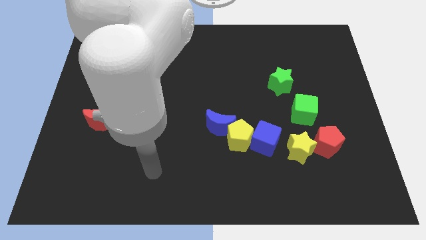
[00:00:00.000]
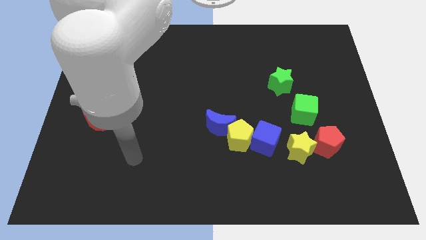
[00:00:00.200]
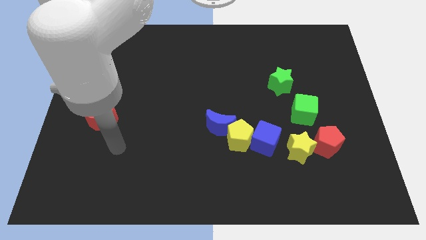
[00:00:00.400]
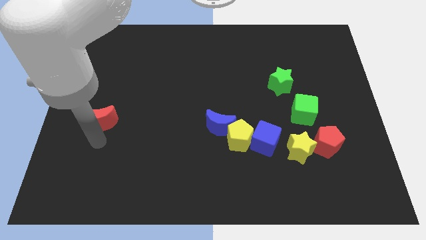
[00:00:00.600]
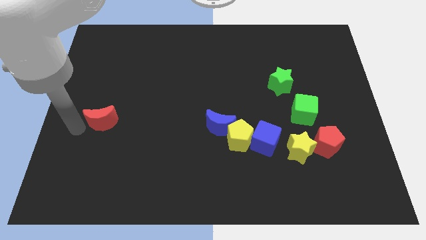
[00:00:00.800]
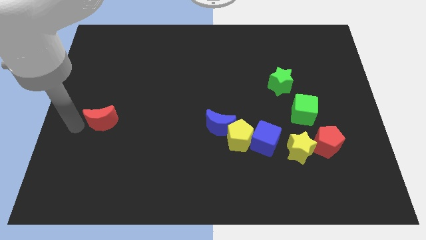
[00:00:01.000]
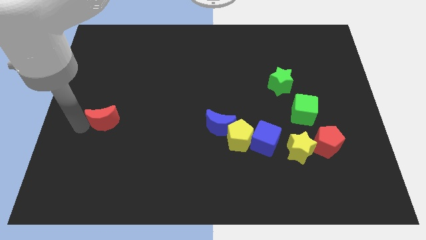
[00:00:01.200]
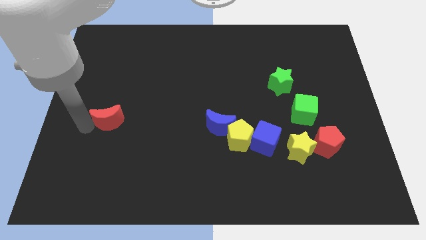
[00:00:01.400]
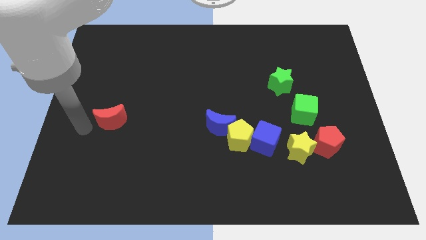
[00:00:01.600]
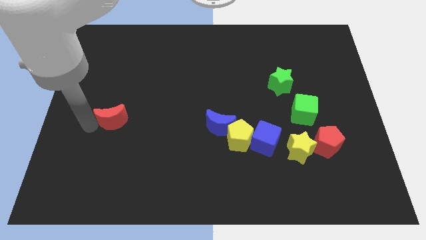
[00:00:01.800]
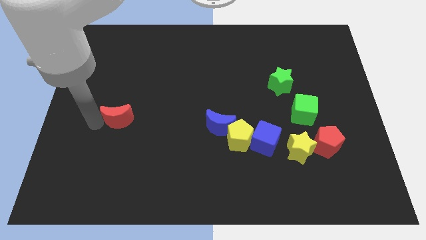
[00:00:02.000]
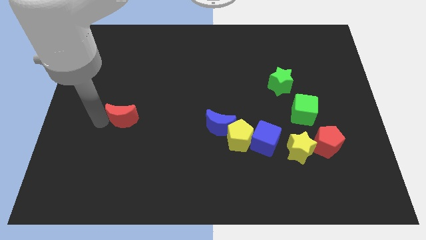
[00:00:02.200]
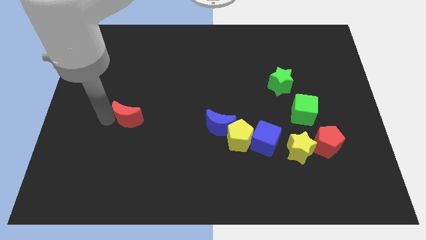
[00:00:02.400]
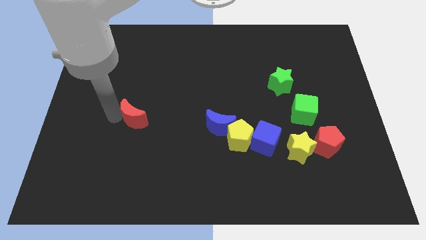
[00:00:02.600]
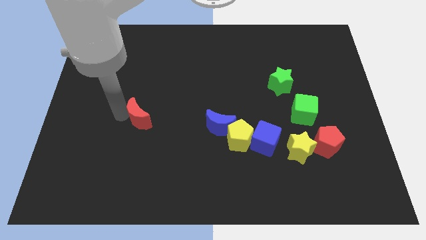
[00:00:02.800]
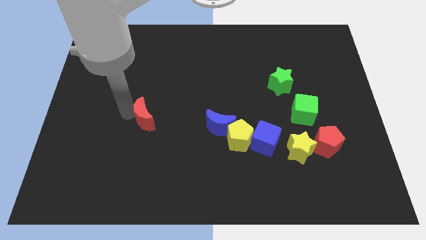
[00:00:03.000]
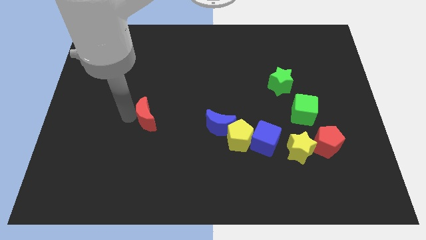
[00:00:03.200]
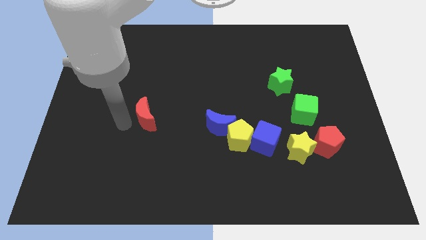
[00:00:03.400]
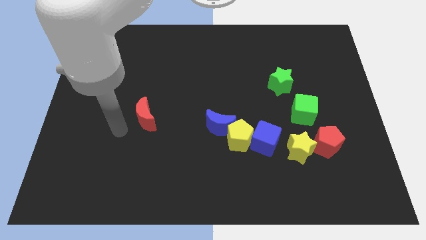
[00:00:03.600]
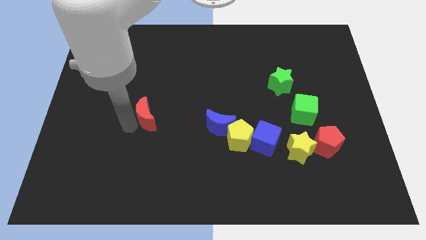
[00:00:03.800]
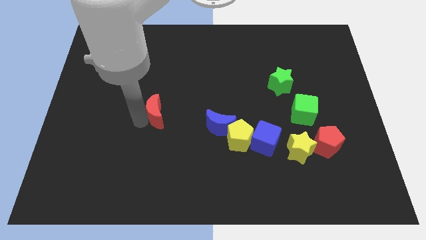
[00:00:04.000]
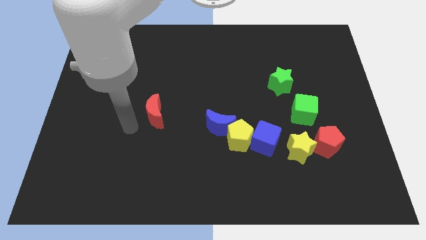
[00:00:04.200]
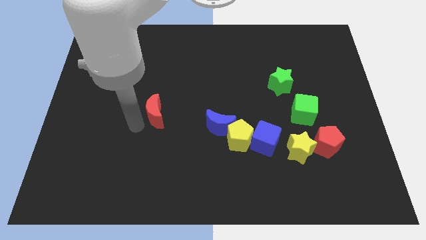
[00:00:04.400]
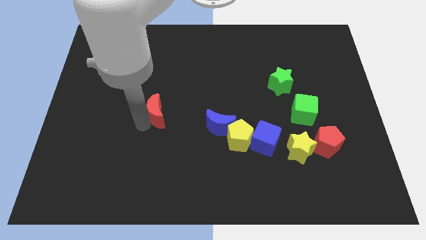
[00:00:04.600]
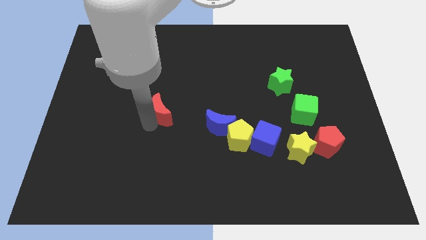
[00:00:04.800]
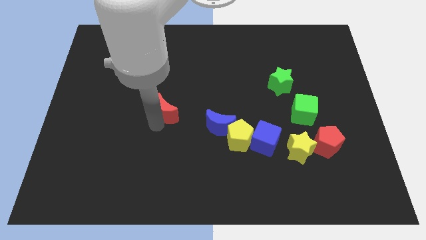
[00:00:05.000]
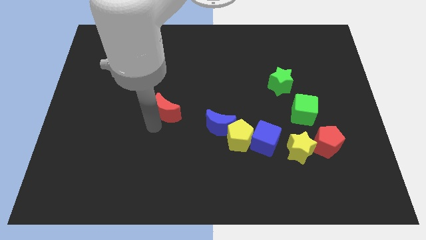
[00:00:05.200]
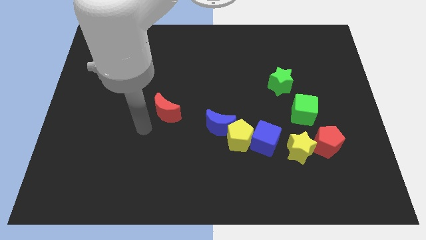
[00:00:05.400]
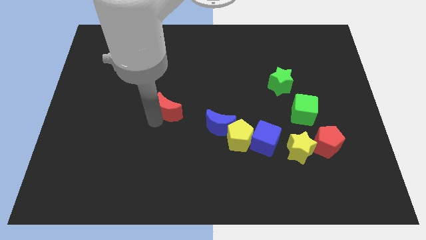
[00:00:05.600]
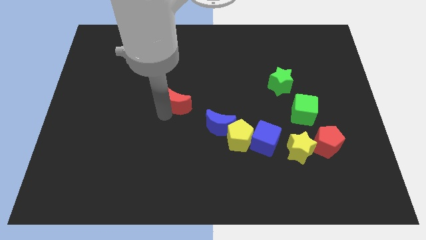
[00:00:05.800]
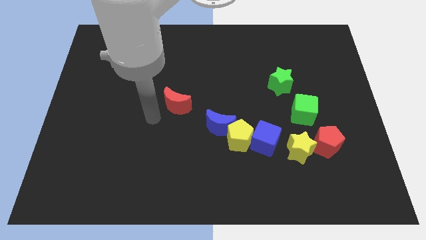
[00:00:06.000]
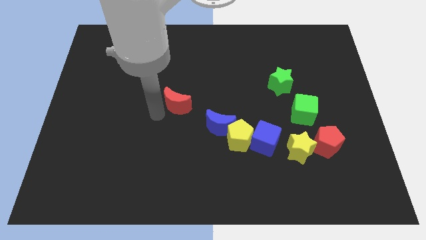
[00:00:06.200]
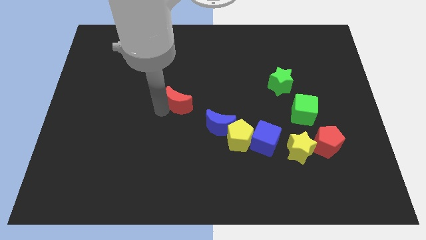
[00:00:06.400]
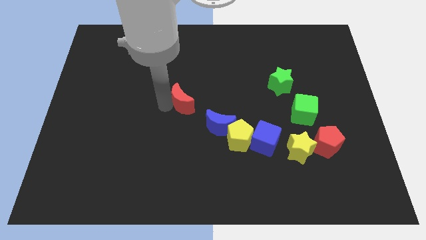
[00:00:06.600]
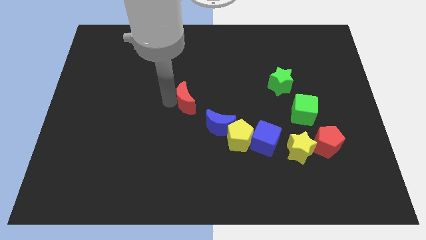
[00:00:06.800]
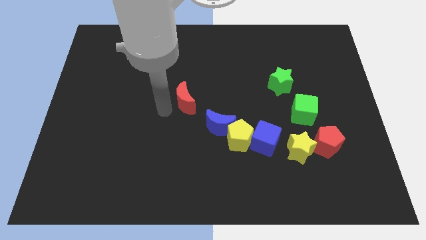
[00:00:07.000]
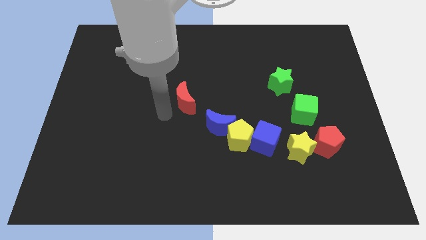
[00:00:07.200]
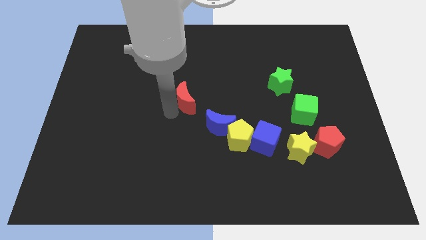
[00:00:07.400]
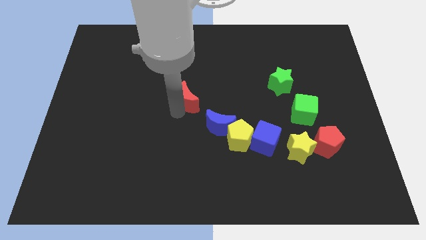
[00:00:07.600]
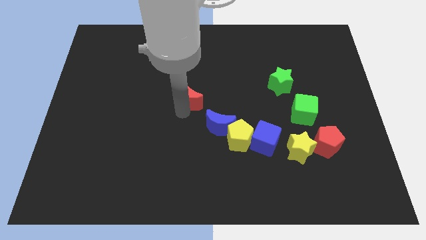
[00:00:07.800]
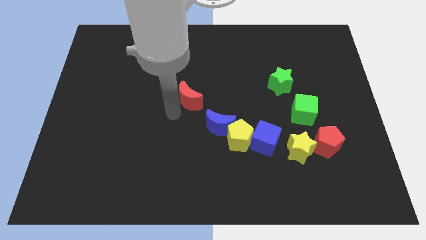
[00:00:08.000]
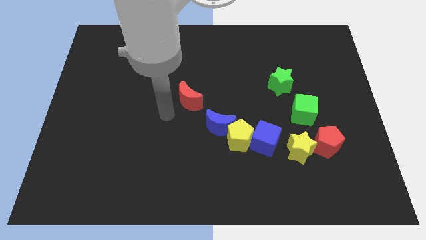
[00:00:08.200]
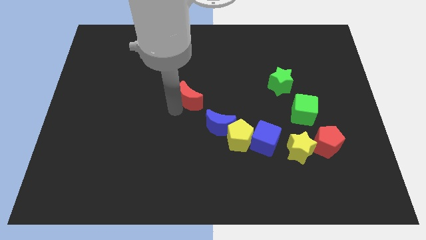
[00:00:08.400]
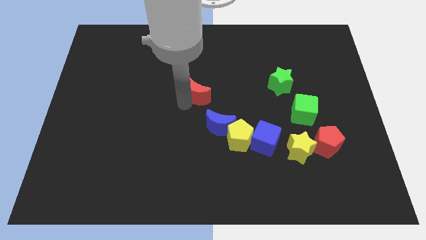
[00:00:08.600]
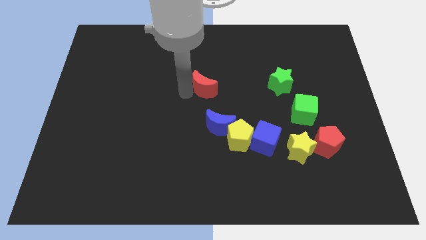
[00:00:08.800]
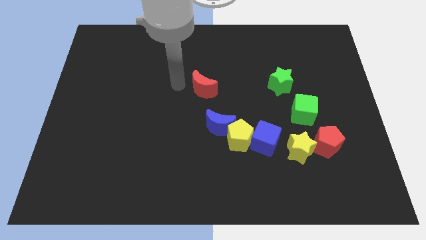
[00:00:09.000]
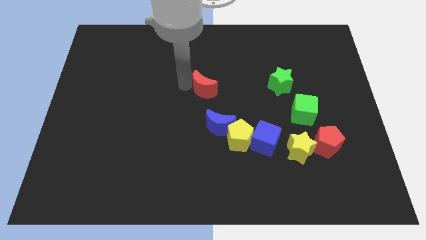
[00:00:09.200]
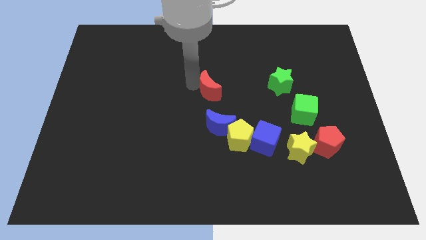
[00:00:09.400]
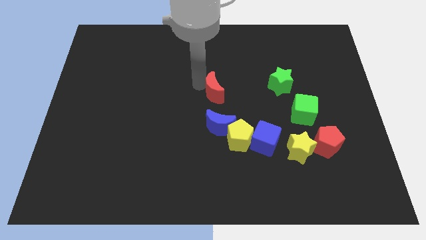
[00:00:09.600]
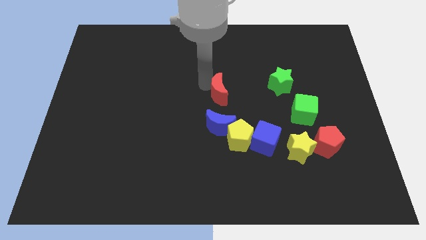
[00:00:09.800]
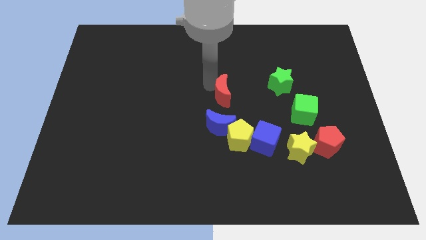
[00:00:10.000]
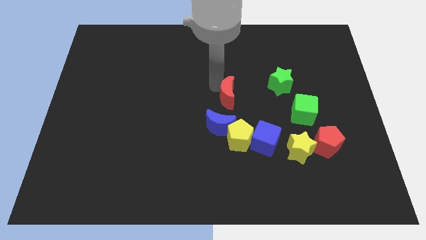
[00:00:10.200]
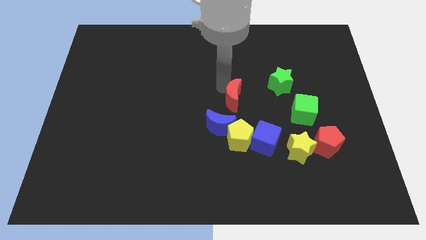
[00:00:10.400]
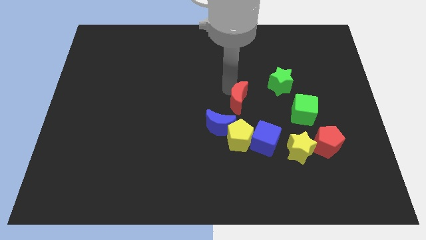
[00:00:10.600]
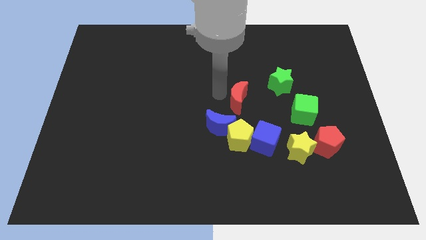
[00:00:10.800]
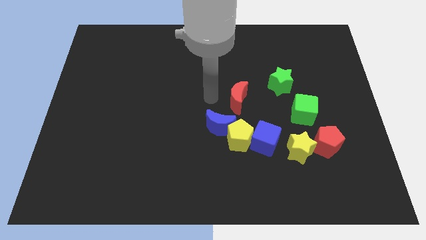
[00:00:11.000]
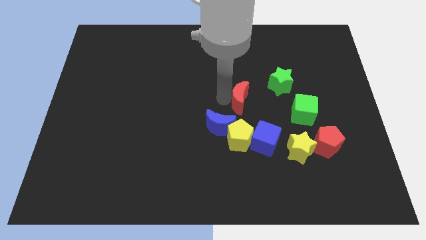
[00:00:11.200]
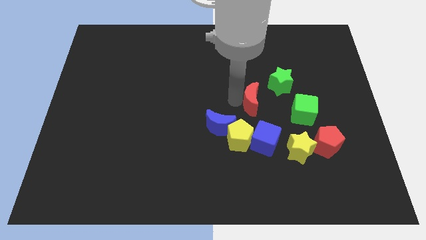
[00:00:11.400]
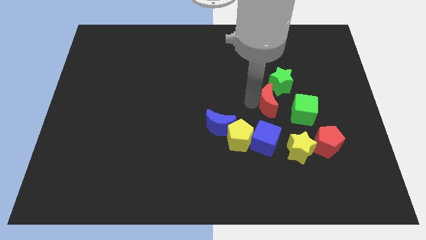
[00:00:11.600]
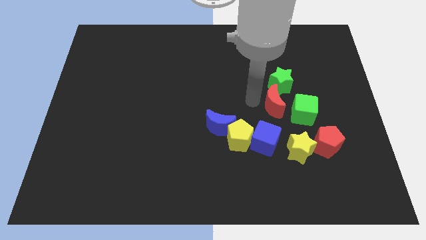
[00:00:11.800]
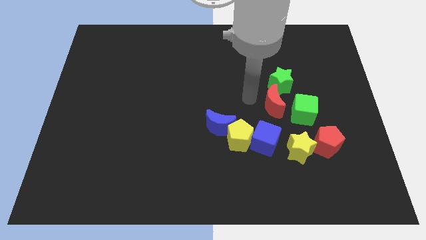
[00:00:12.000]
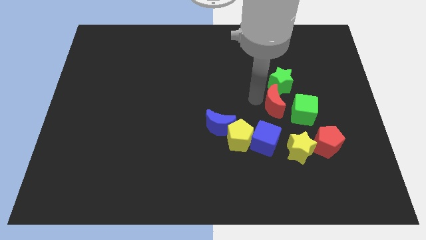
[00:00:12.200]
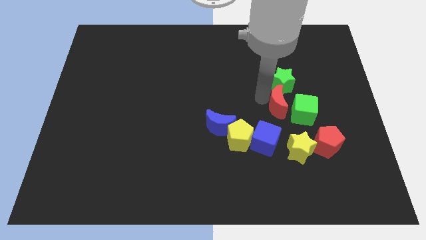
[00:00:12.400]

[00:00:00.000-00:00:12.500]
push the red moon next to the green cube

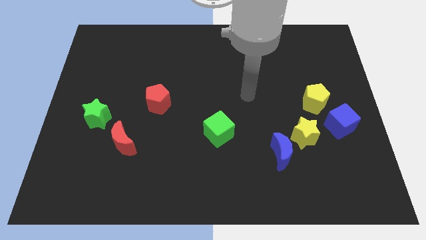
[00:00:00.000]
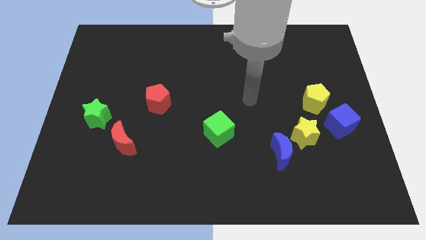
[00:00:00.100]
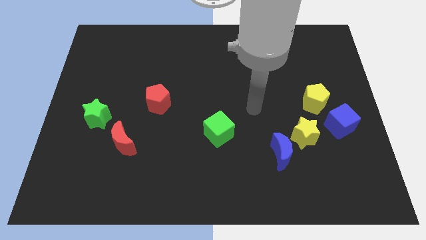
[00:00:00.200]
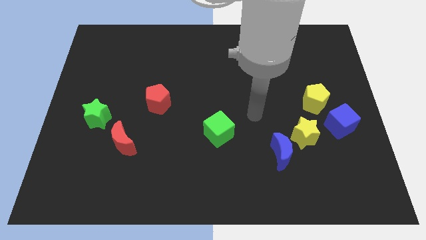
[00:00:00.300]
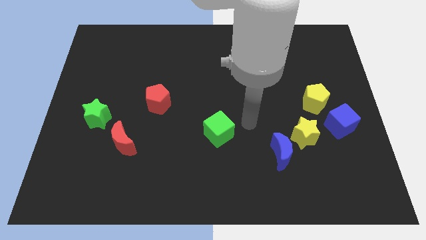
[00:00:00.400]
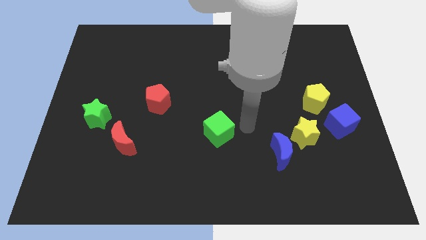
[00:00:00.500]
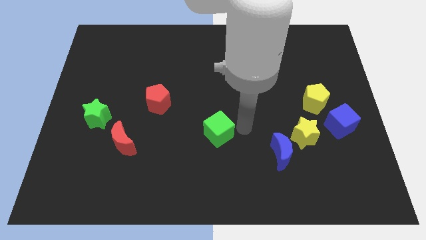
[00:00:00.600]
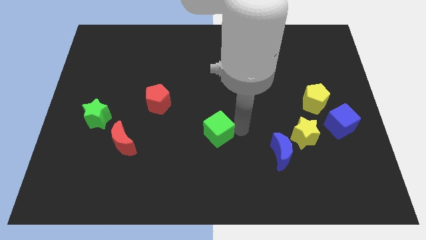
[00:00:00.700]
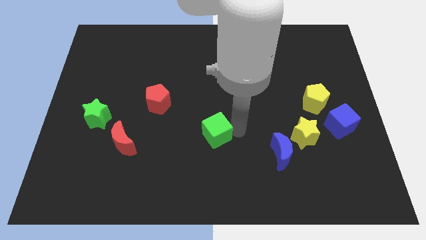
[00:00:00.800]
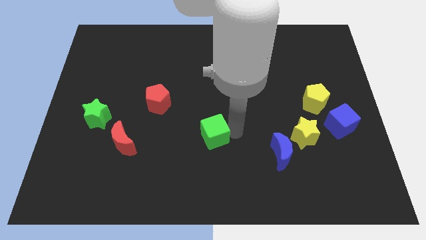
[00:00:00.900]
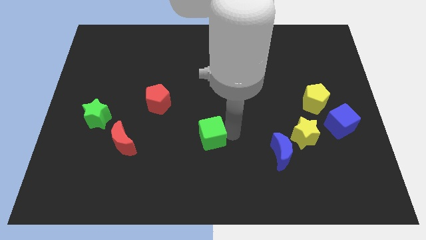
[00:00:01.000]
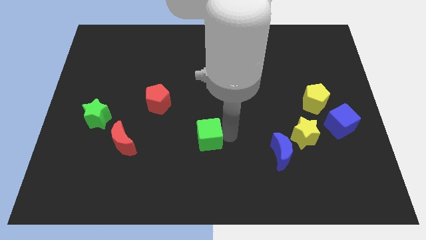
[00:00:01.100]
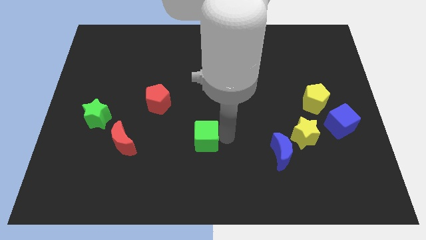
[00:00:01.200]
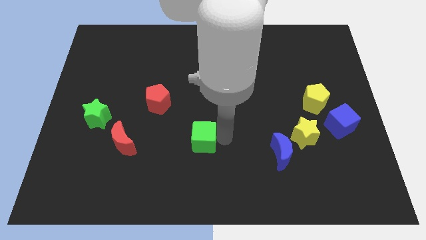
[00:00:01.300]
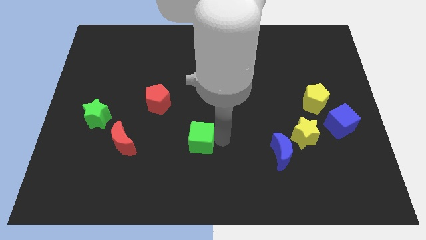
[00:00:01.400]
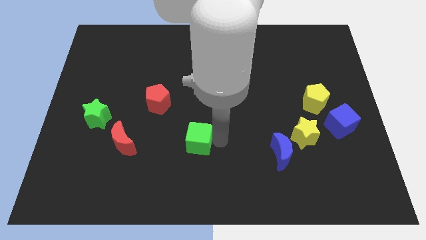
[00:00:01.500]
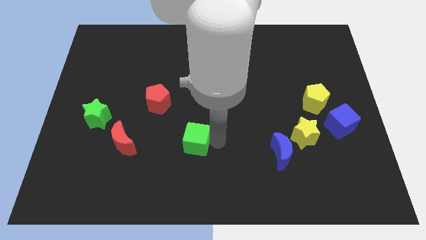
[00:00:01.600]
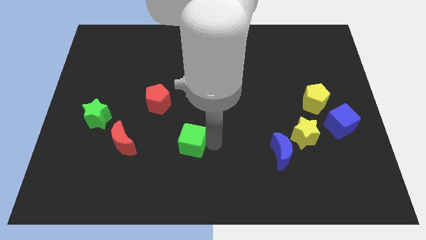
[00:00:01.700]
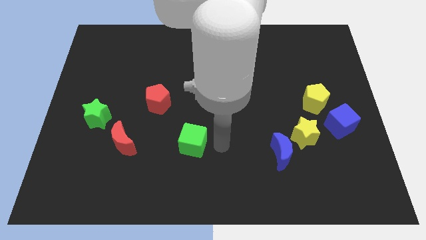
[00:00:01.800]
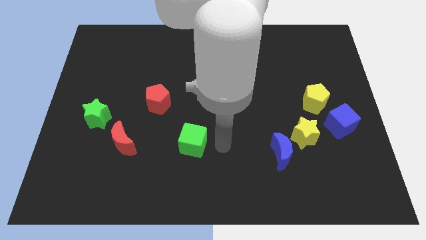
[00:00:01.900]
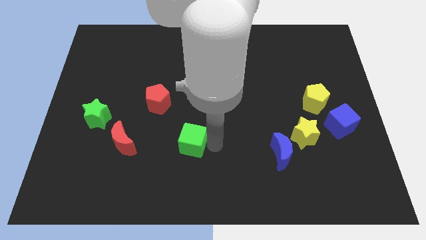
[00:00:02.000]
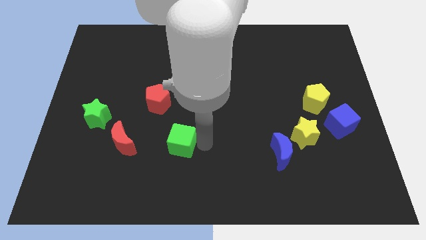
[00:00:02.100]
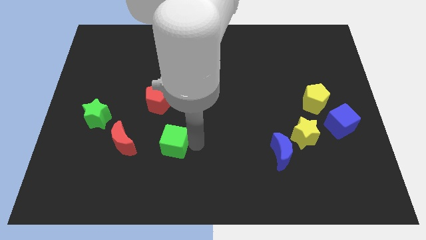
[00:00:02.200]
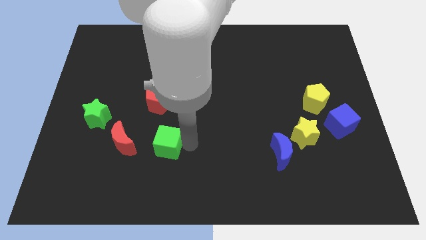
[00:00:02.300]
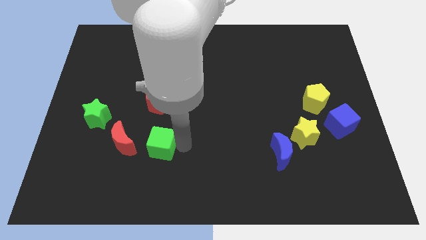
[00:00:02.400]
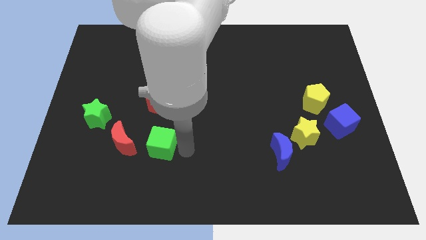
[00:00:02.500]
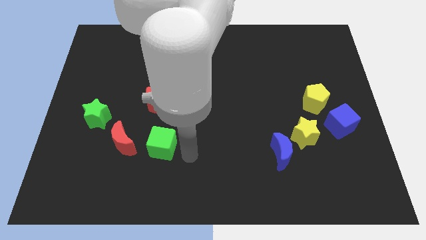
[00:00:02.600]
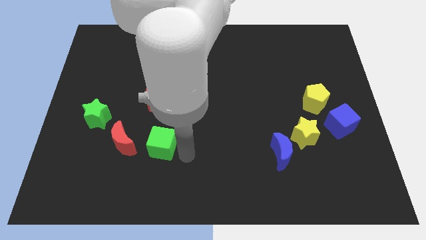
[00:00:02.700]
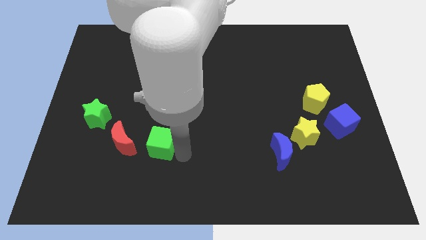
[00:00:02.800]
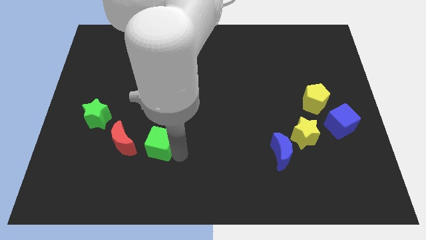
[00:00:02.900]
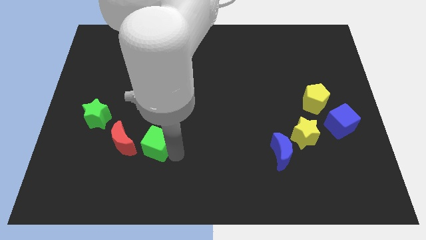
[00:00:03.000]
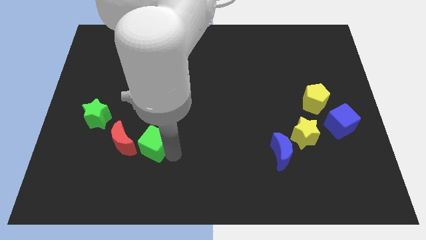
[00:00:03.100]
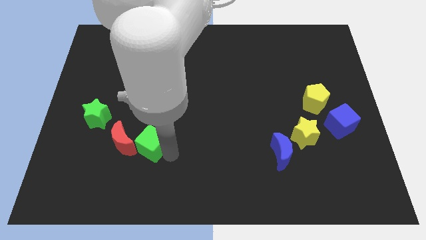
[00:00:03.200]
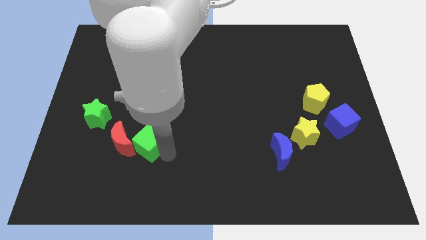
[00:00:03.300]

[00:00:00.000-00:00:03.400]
push the green cube close to the red moon
